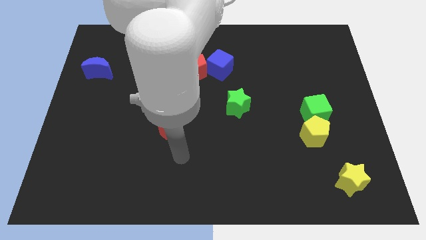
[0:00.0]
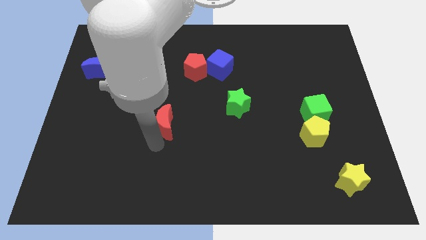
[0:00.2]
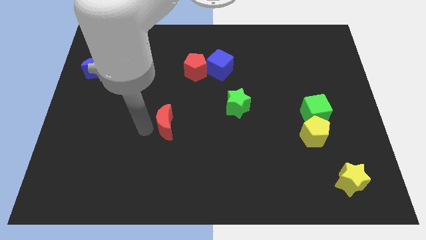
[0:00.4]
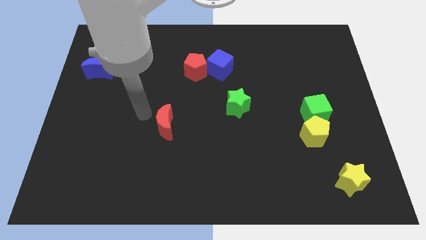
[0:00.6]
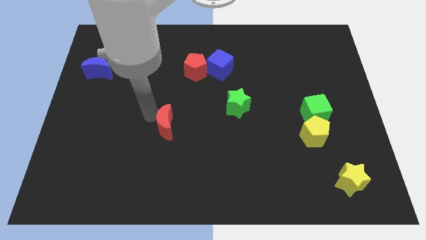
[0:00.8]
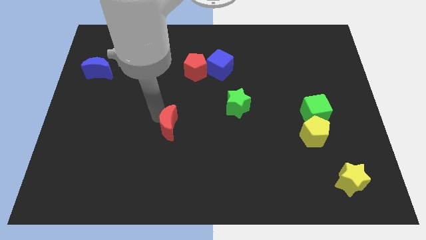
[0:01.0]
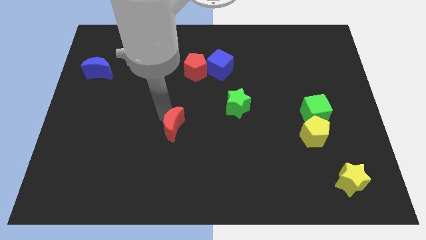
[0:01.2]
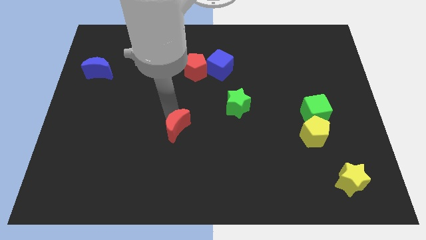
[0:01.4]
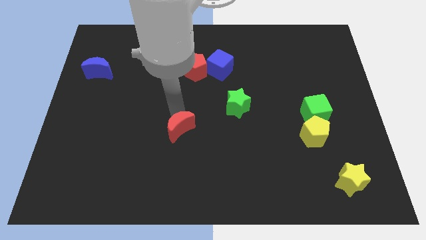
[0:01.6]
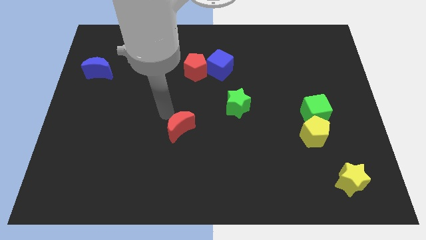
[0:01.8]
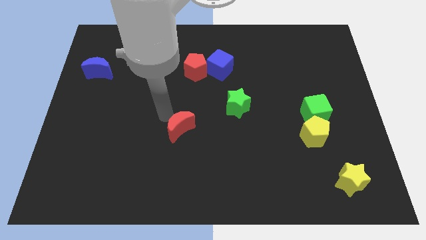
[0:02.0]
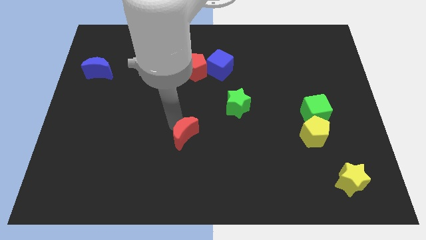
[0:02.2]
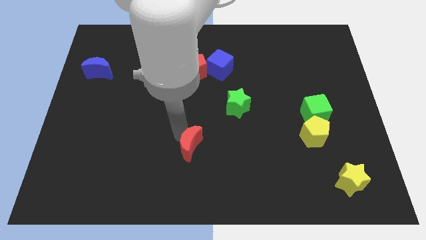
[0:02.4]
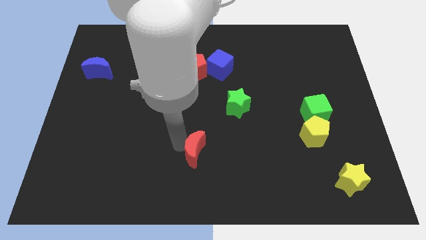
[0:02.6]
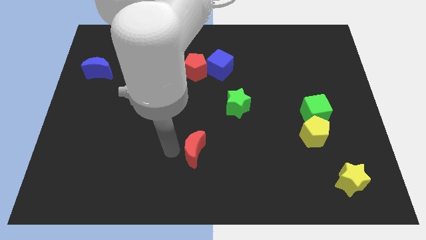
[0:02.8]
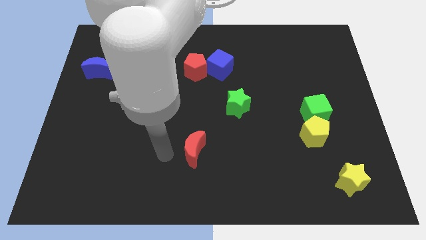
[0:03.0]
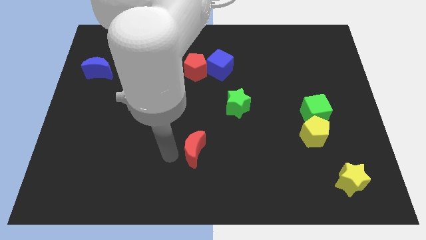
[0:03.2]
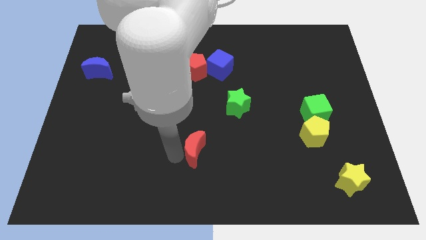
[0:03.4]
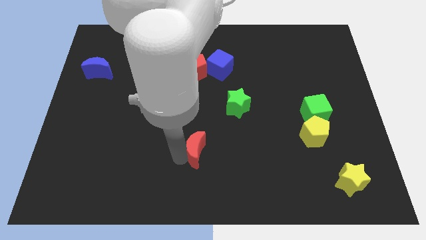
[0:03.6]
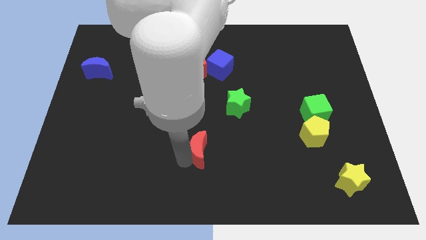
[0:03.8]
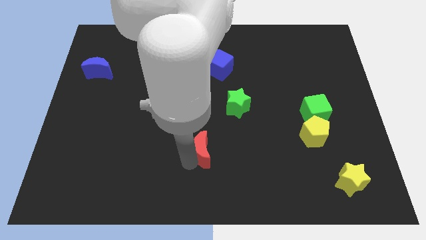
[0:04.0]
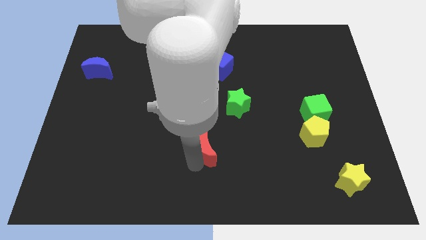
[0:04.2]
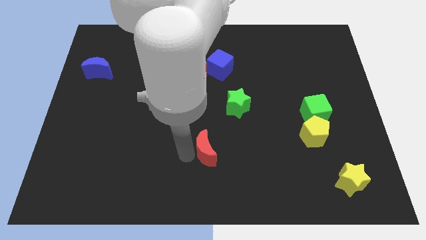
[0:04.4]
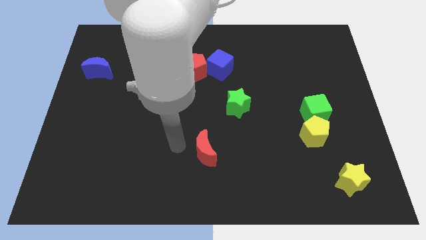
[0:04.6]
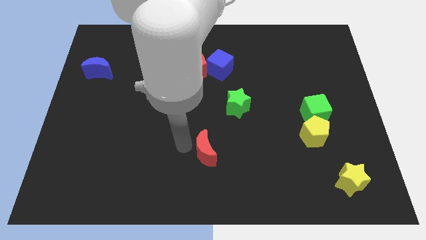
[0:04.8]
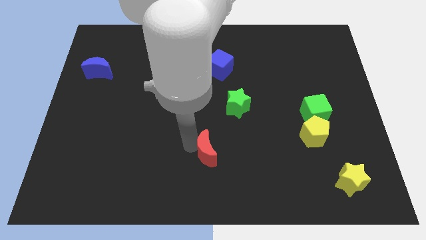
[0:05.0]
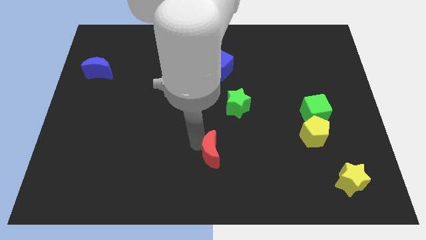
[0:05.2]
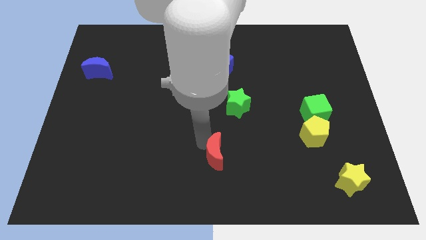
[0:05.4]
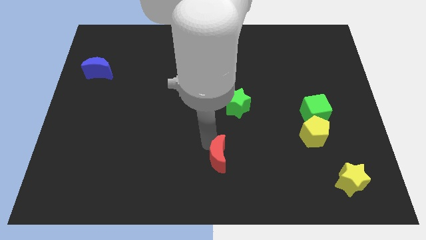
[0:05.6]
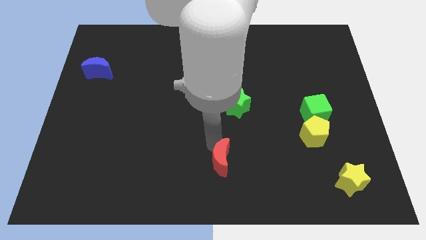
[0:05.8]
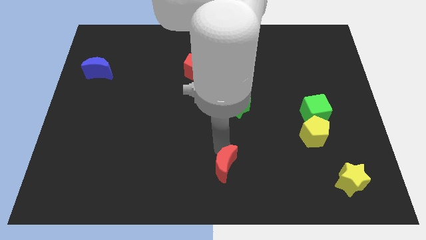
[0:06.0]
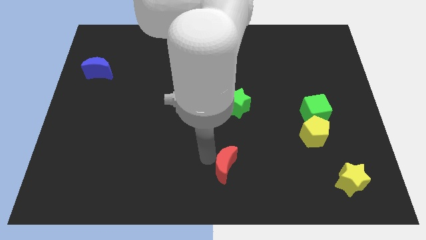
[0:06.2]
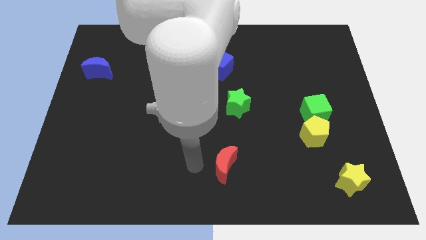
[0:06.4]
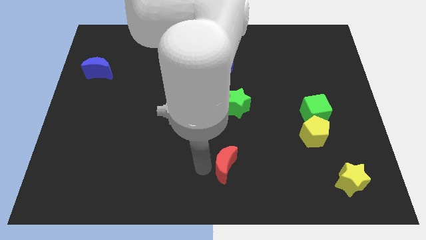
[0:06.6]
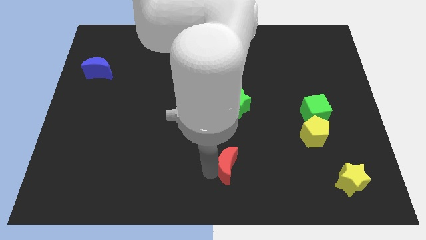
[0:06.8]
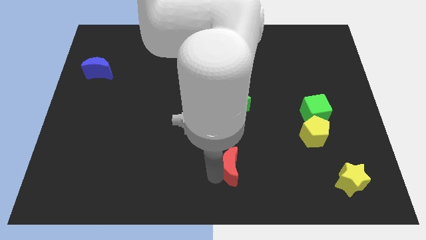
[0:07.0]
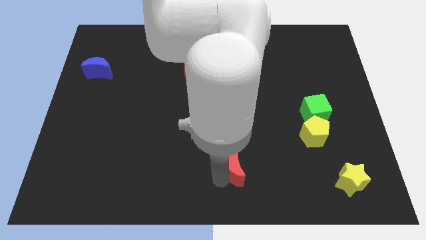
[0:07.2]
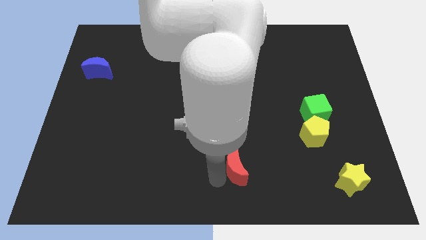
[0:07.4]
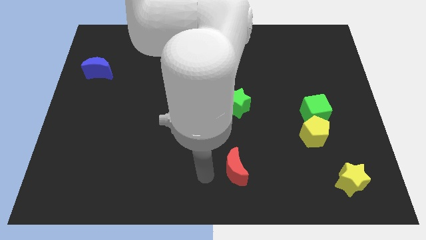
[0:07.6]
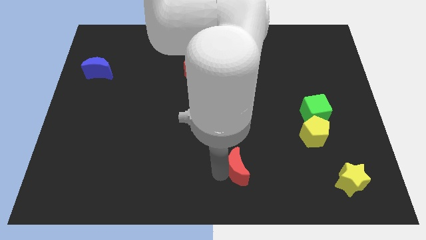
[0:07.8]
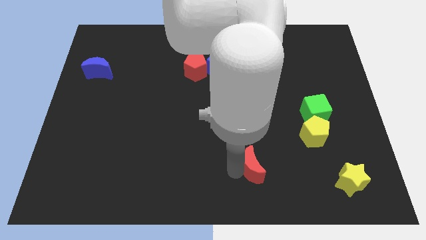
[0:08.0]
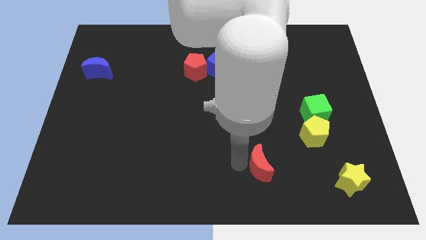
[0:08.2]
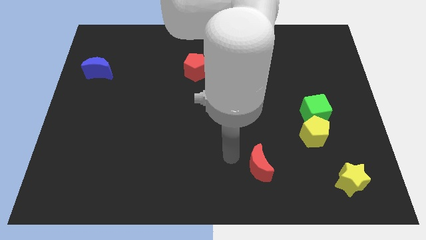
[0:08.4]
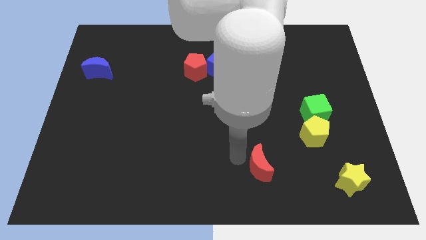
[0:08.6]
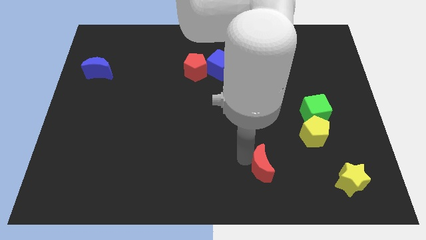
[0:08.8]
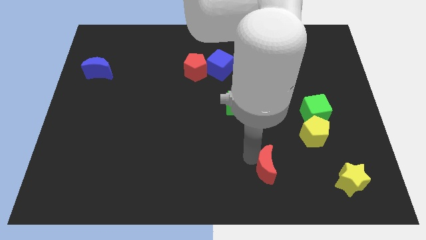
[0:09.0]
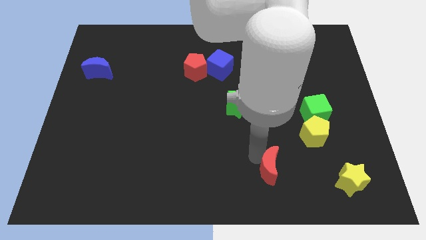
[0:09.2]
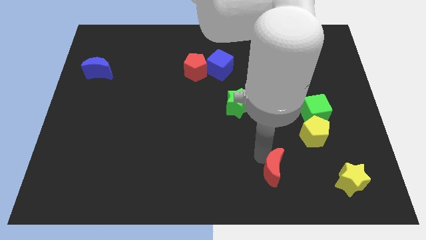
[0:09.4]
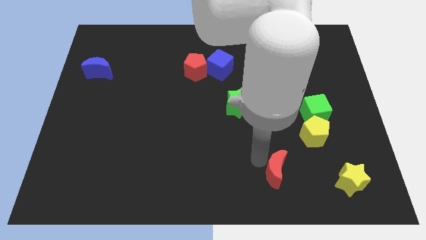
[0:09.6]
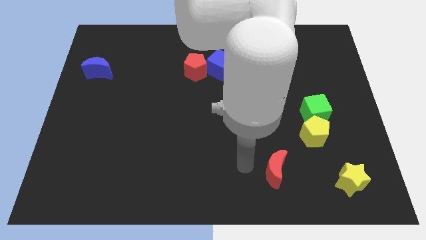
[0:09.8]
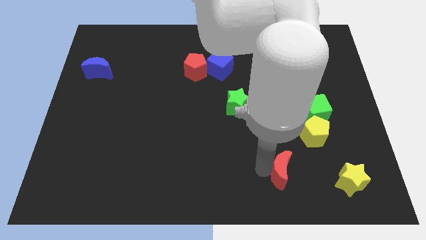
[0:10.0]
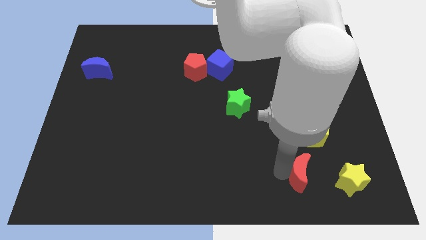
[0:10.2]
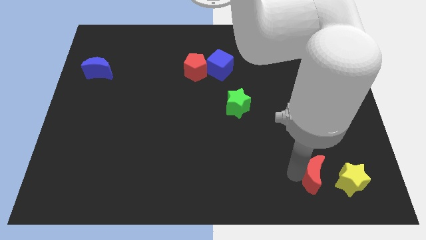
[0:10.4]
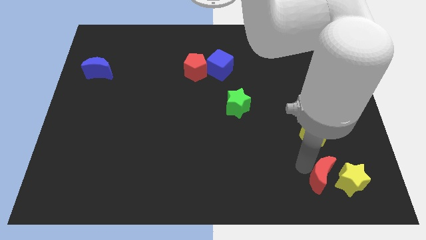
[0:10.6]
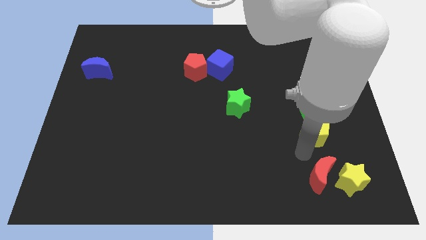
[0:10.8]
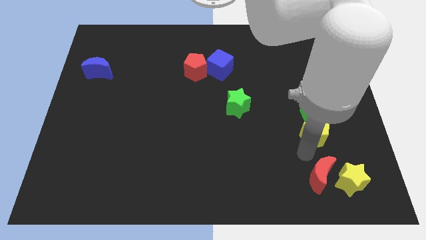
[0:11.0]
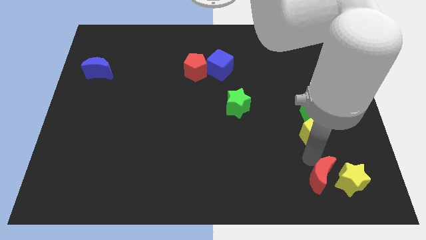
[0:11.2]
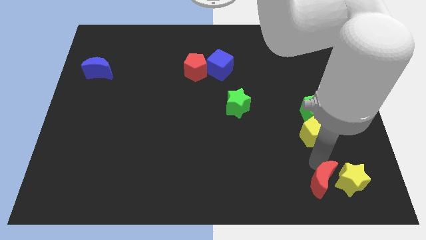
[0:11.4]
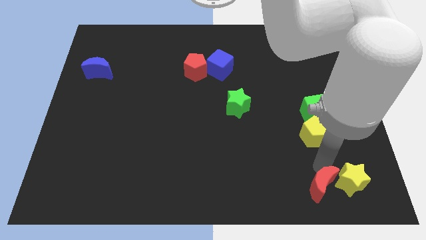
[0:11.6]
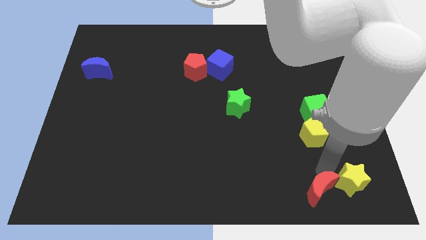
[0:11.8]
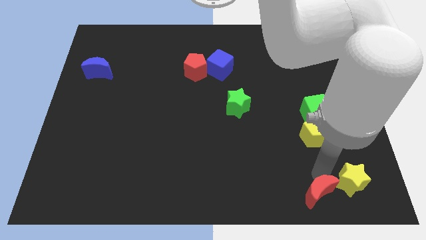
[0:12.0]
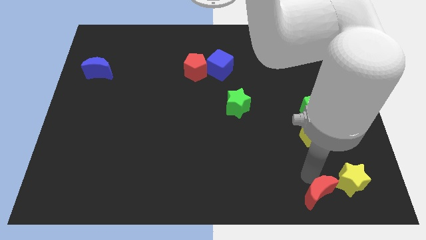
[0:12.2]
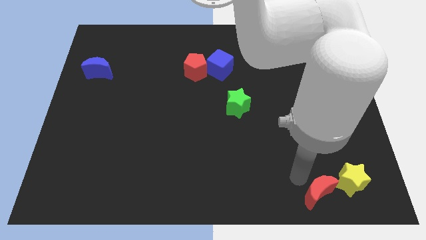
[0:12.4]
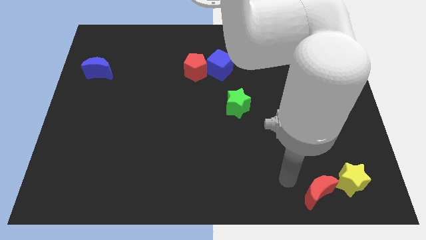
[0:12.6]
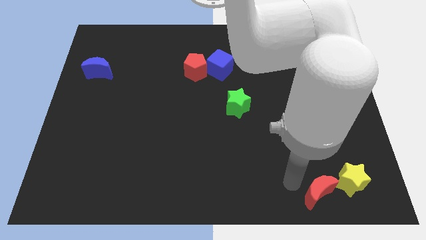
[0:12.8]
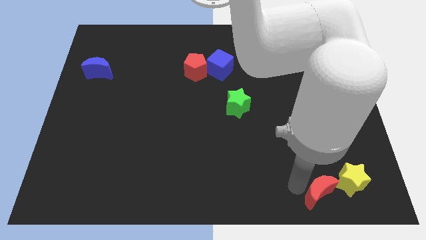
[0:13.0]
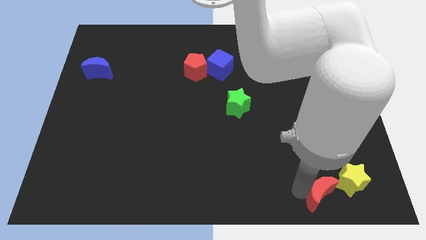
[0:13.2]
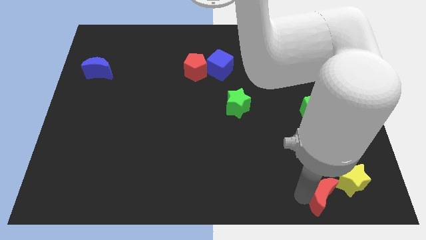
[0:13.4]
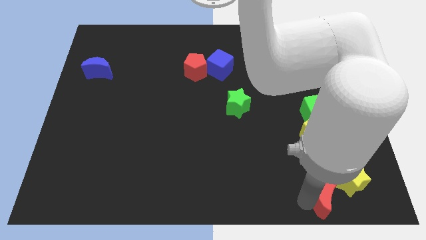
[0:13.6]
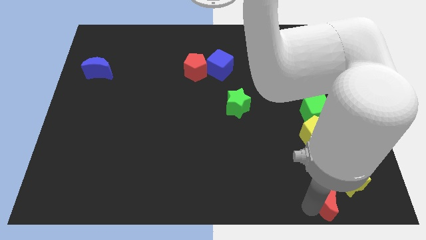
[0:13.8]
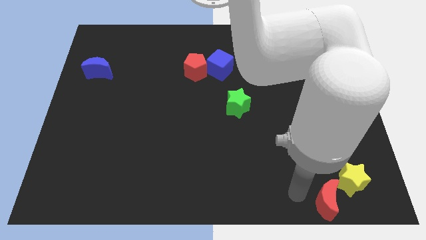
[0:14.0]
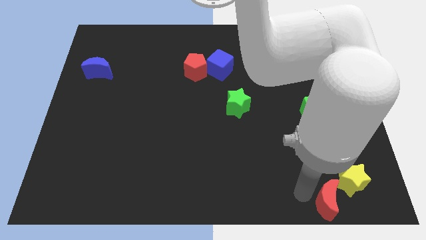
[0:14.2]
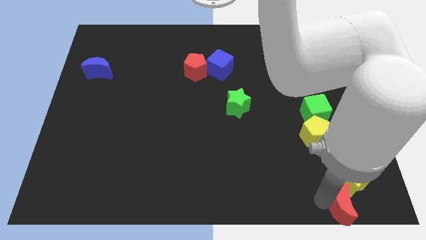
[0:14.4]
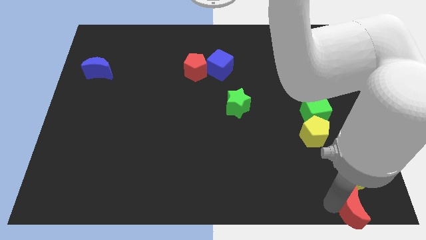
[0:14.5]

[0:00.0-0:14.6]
slide the red moon to the bottom right
